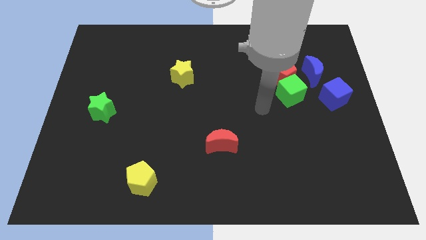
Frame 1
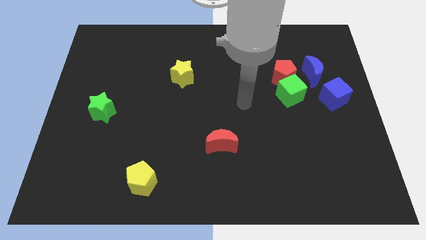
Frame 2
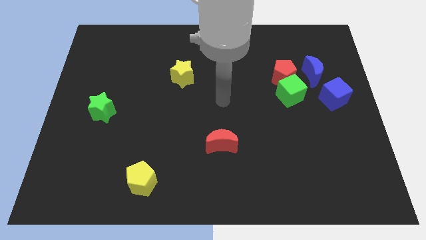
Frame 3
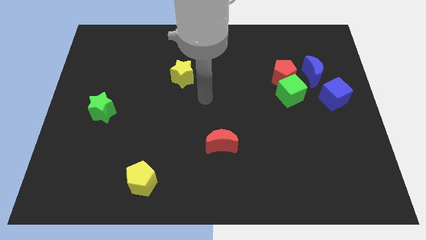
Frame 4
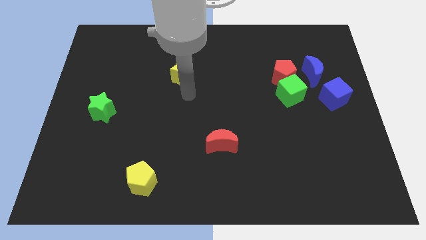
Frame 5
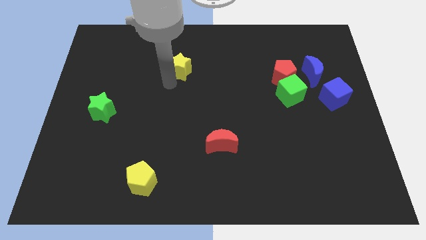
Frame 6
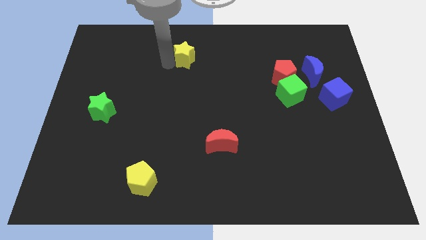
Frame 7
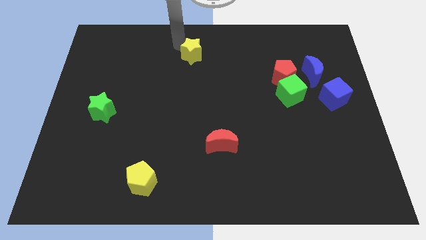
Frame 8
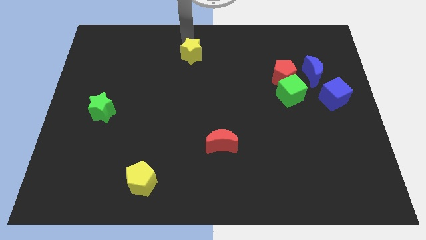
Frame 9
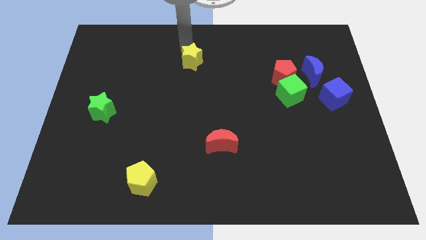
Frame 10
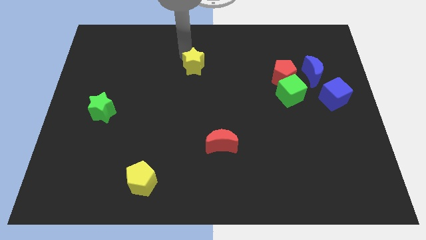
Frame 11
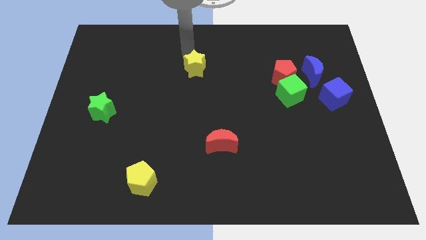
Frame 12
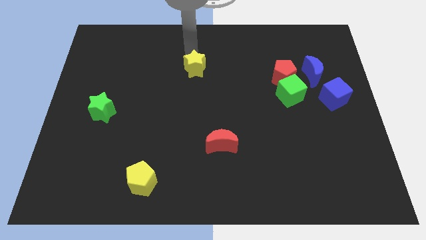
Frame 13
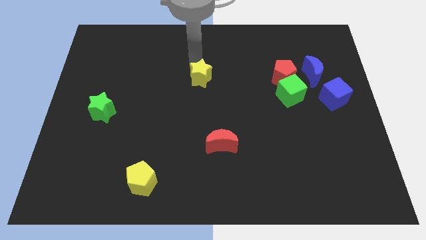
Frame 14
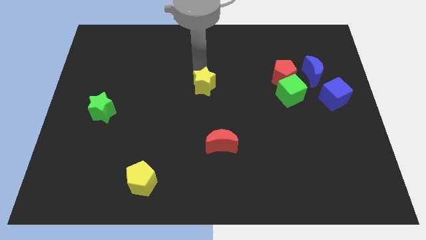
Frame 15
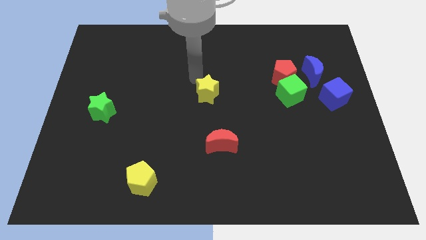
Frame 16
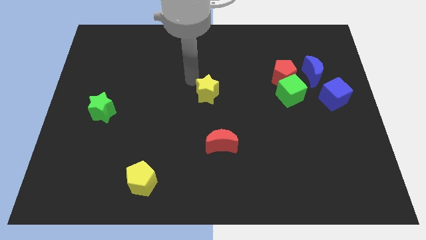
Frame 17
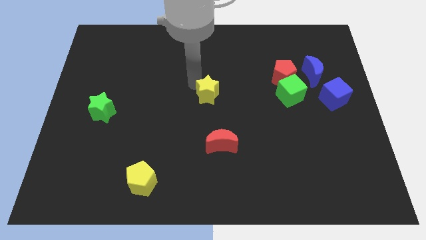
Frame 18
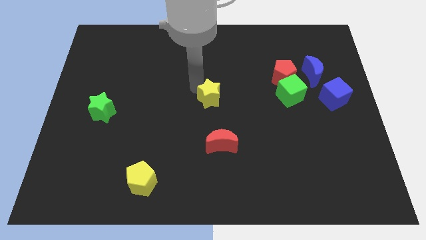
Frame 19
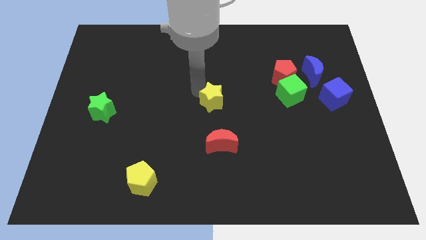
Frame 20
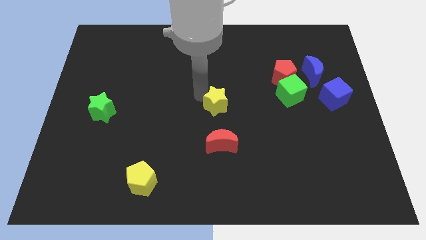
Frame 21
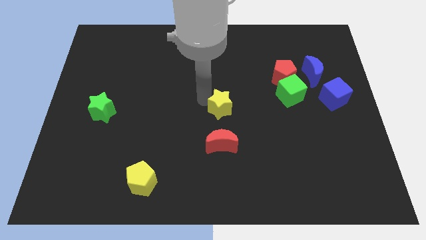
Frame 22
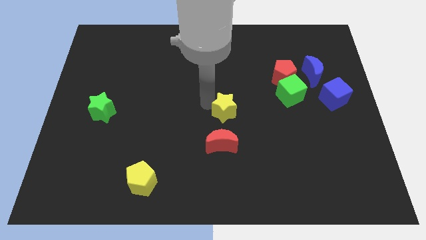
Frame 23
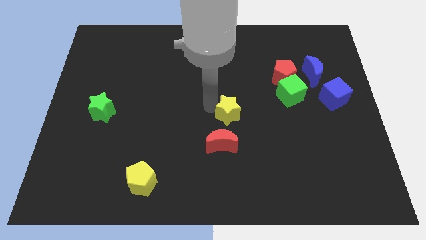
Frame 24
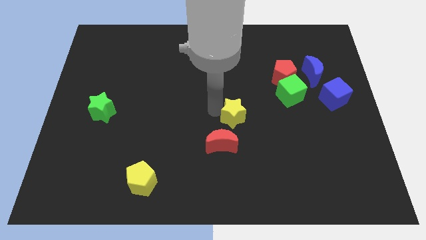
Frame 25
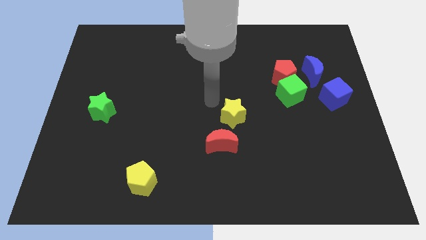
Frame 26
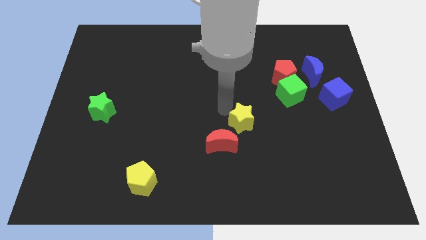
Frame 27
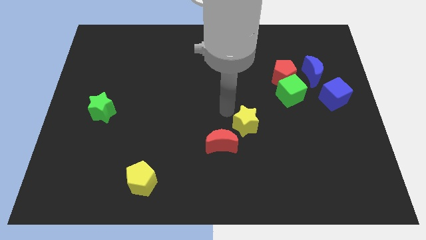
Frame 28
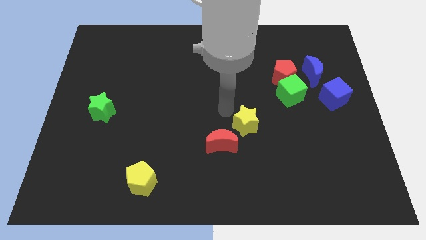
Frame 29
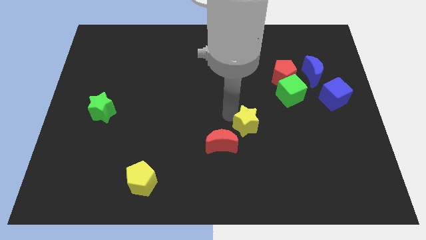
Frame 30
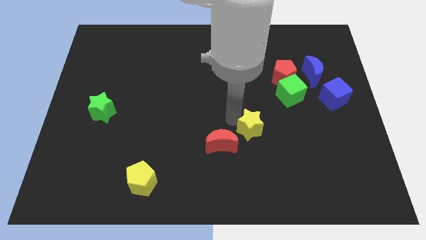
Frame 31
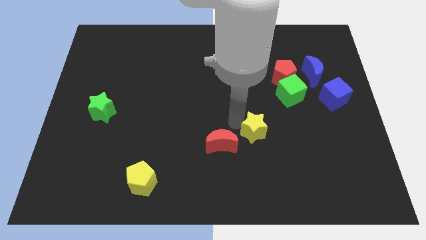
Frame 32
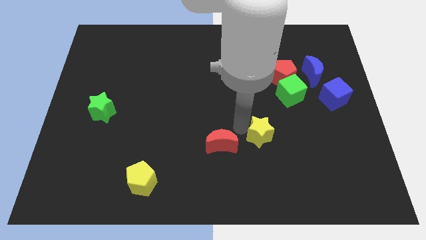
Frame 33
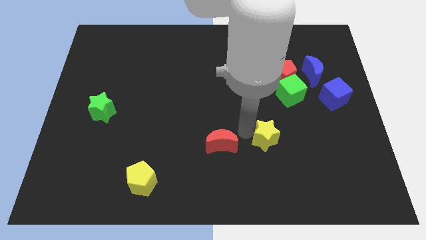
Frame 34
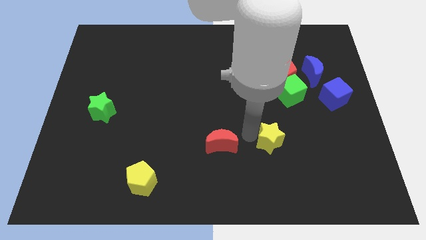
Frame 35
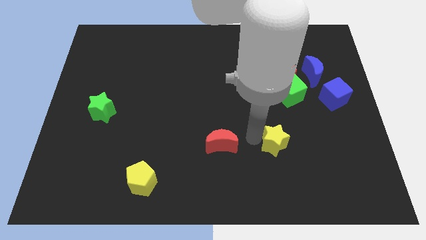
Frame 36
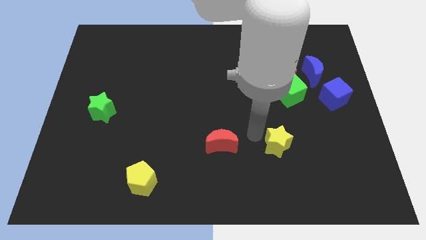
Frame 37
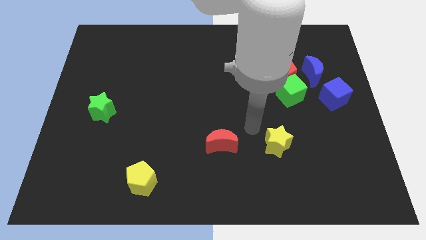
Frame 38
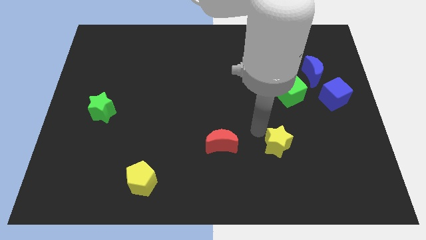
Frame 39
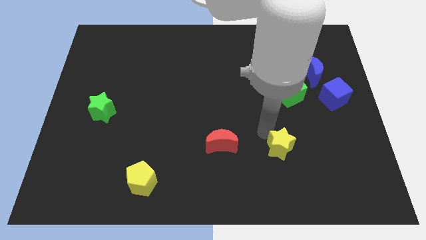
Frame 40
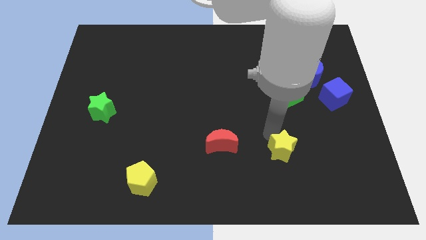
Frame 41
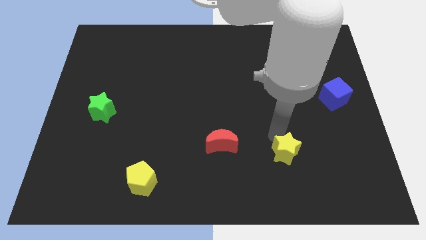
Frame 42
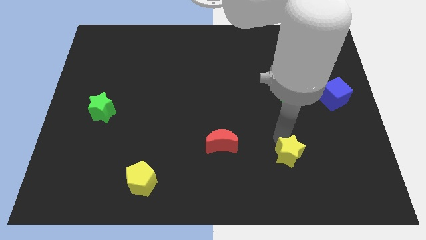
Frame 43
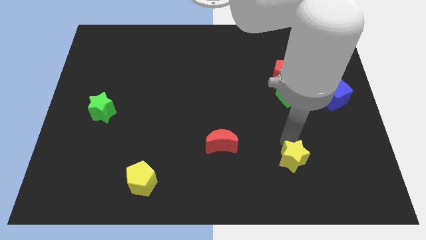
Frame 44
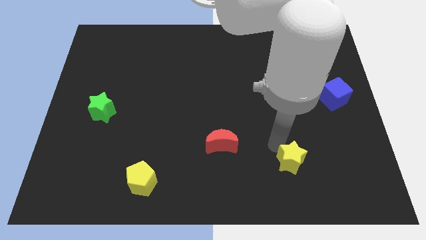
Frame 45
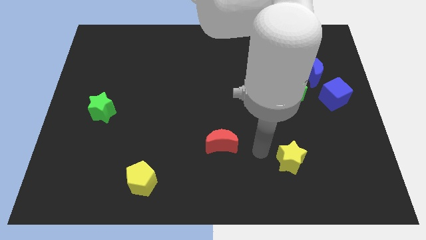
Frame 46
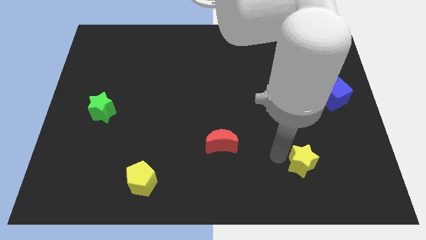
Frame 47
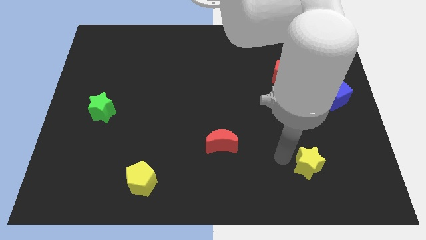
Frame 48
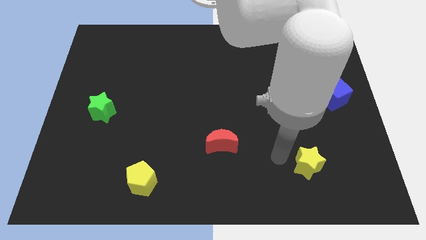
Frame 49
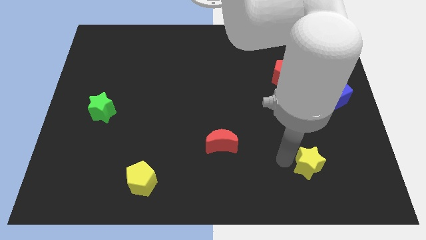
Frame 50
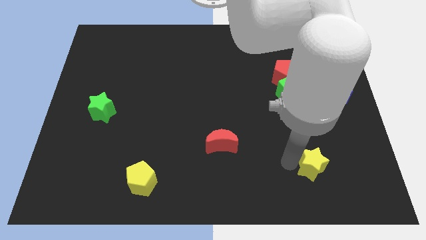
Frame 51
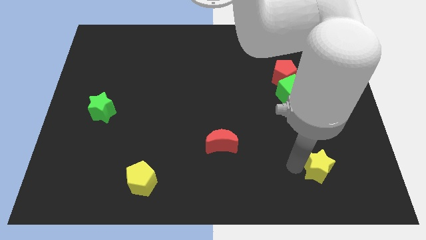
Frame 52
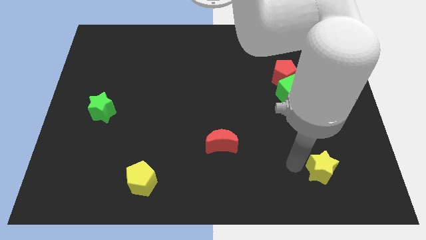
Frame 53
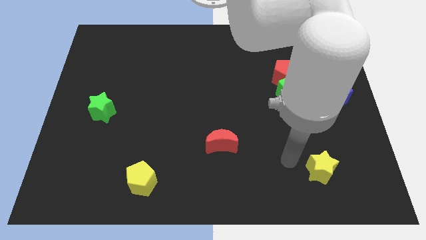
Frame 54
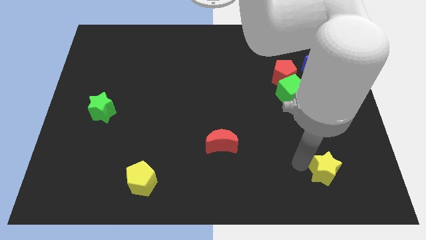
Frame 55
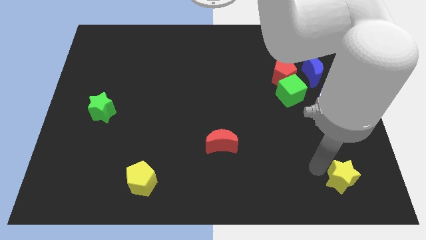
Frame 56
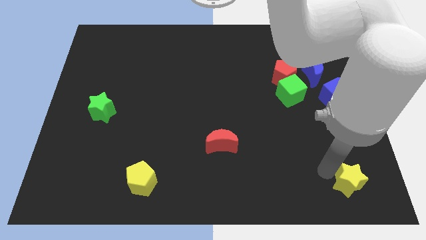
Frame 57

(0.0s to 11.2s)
put the yellow star to the bottom right

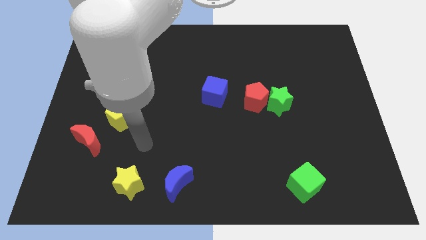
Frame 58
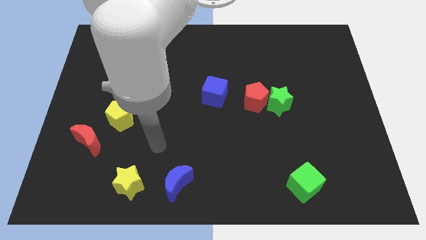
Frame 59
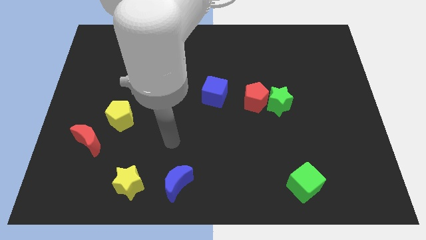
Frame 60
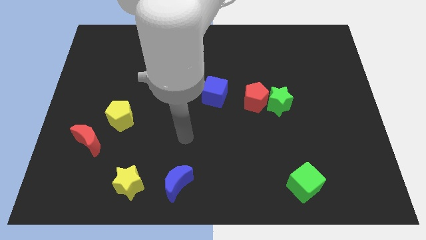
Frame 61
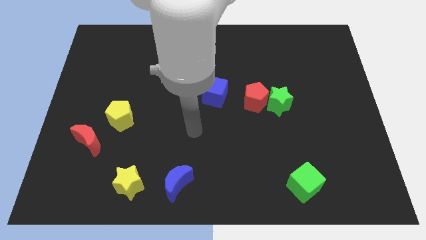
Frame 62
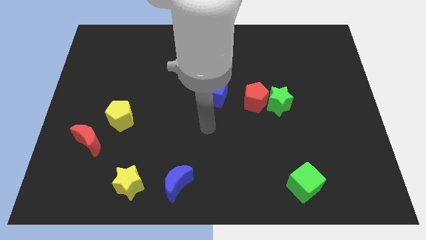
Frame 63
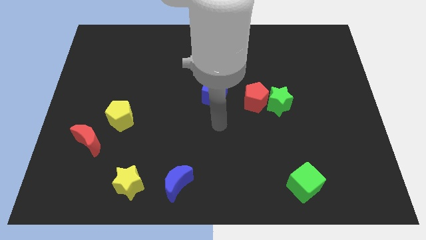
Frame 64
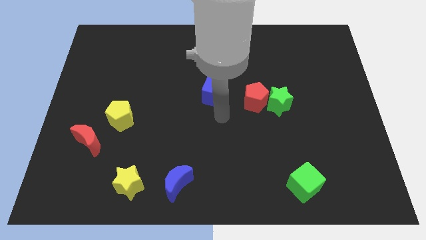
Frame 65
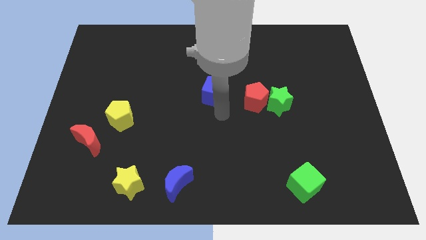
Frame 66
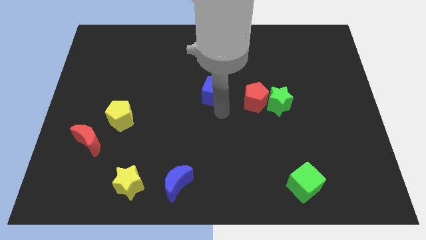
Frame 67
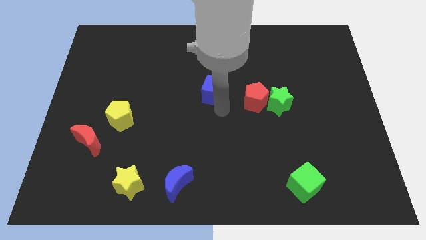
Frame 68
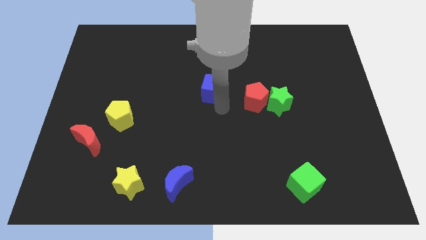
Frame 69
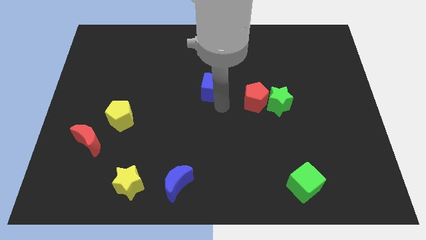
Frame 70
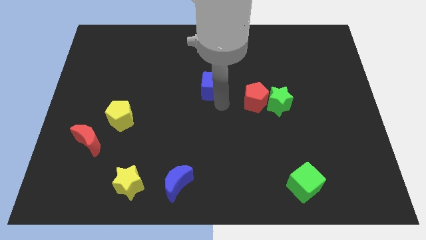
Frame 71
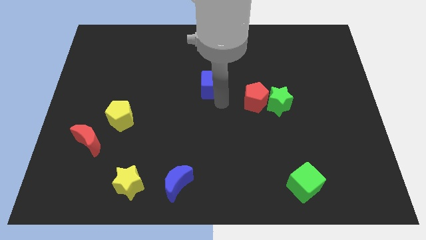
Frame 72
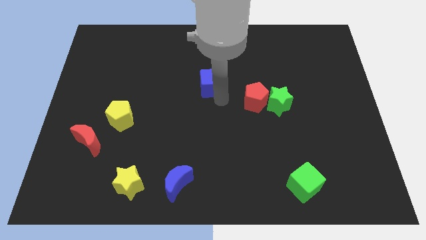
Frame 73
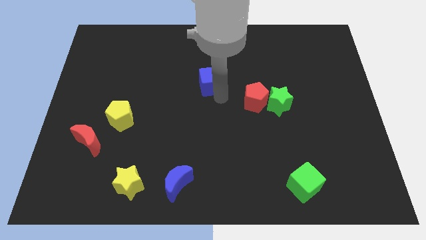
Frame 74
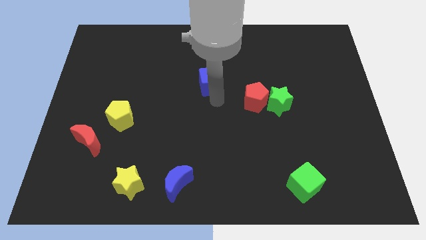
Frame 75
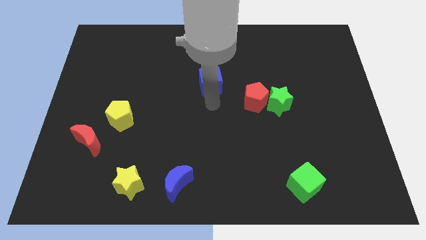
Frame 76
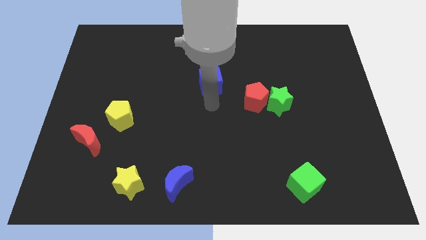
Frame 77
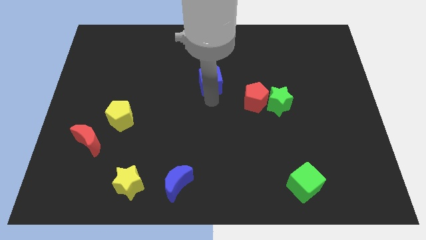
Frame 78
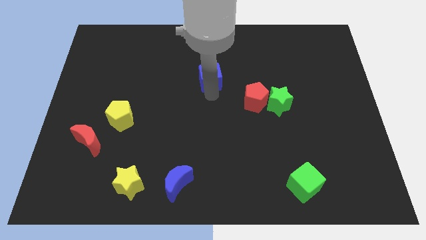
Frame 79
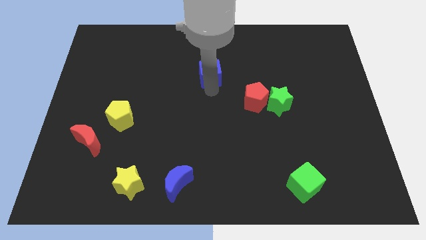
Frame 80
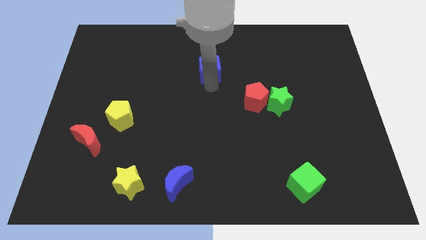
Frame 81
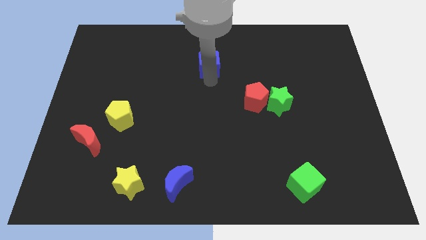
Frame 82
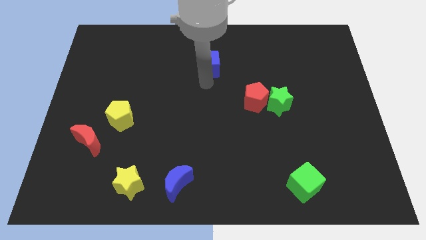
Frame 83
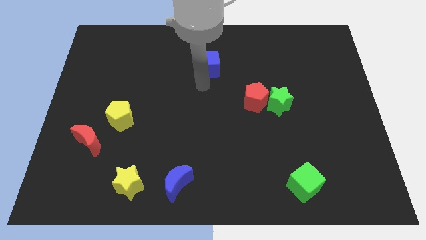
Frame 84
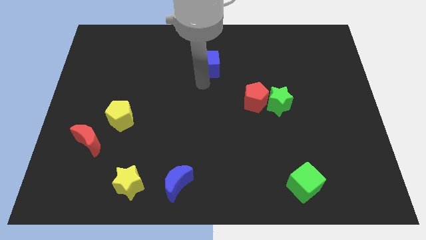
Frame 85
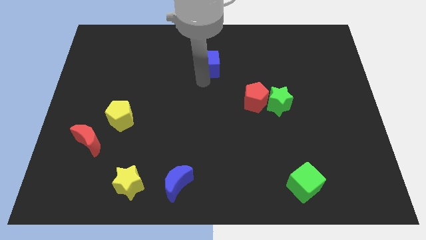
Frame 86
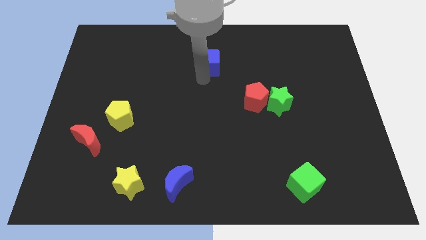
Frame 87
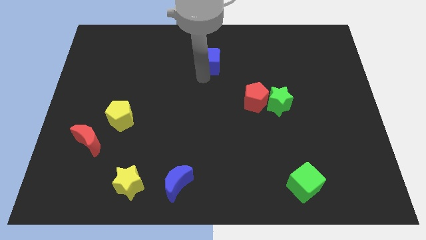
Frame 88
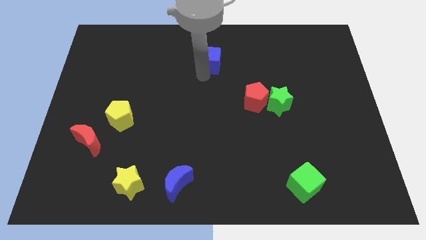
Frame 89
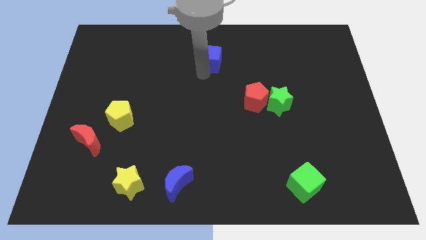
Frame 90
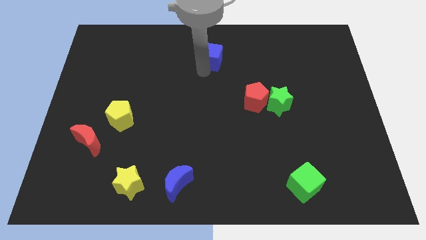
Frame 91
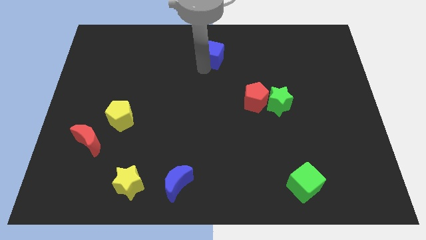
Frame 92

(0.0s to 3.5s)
slide the blue cube to the top
